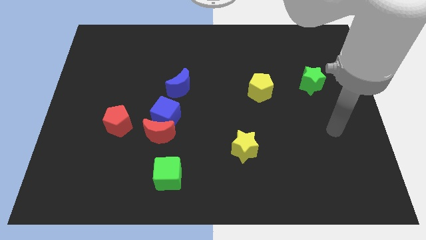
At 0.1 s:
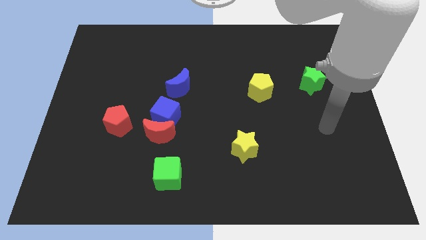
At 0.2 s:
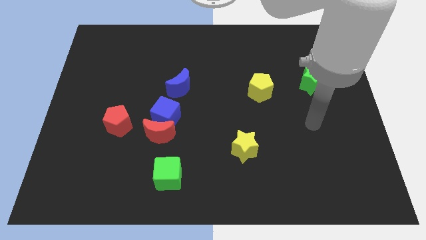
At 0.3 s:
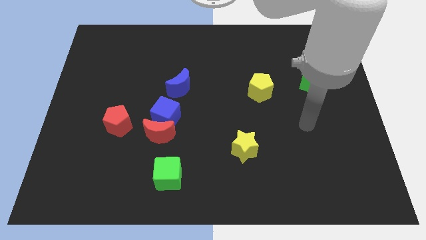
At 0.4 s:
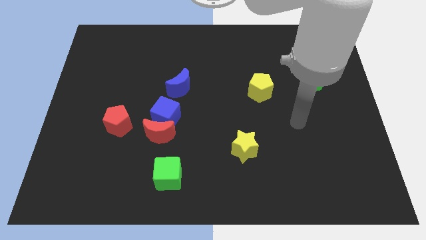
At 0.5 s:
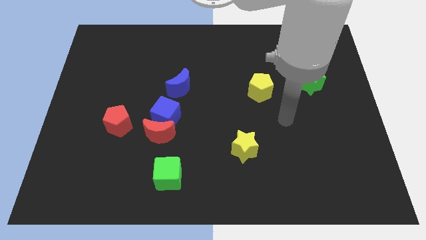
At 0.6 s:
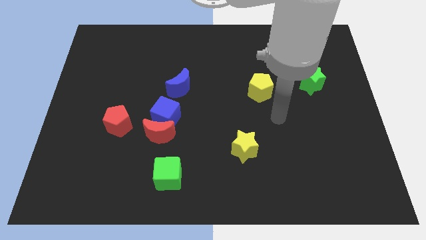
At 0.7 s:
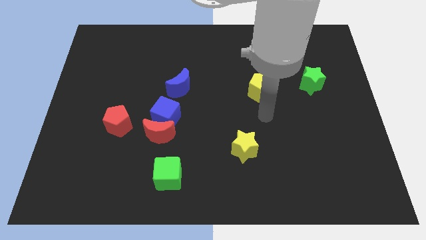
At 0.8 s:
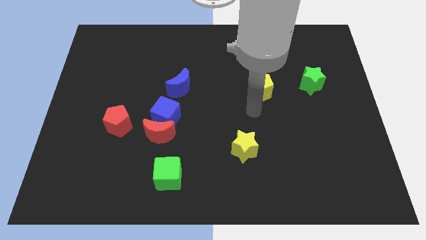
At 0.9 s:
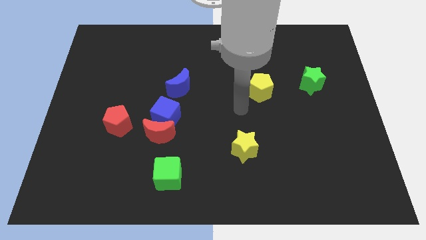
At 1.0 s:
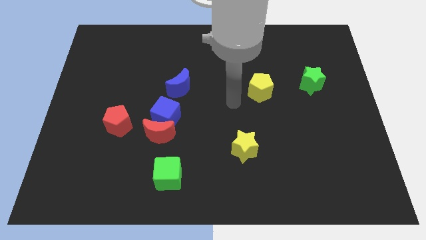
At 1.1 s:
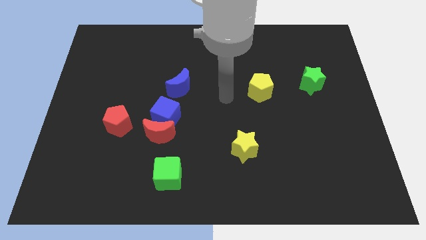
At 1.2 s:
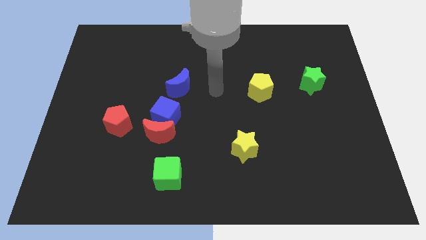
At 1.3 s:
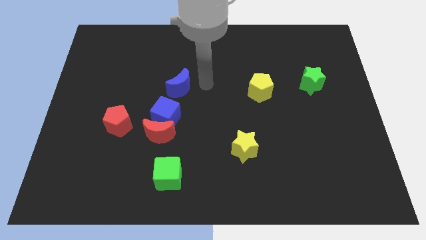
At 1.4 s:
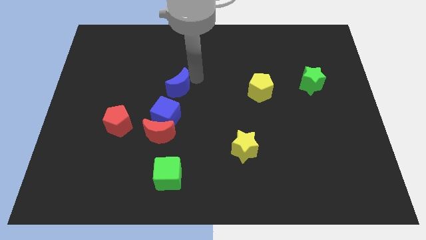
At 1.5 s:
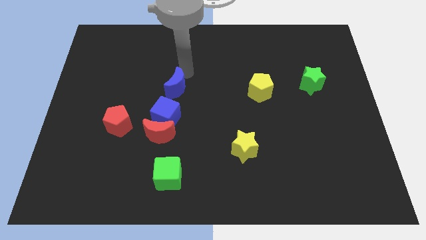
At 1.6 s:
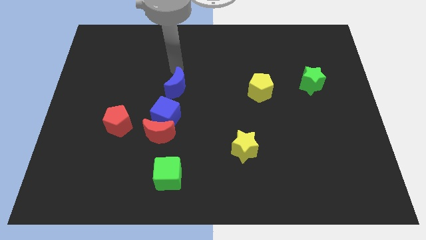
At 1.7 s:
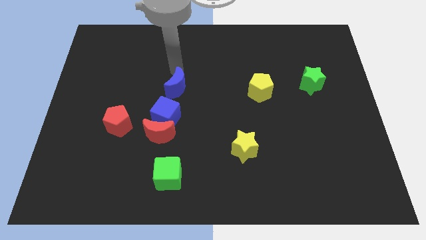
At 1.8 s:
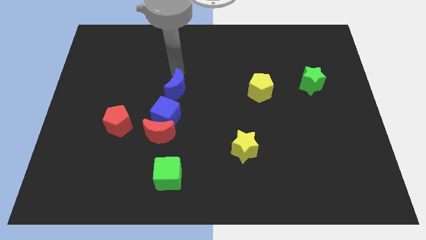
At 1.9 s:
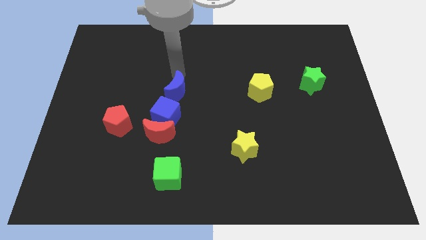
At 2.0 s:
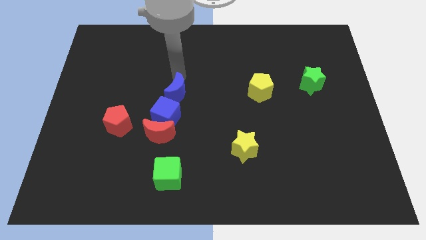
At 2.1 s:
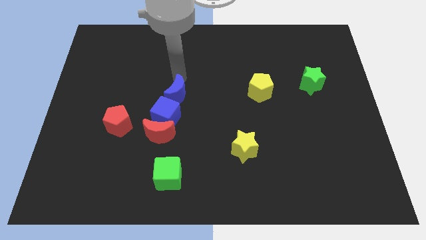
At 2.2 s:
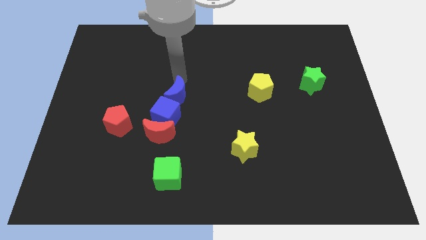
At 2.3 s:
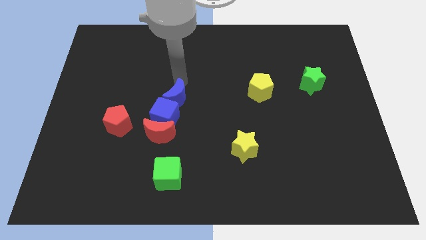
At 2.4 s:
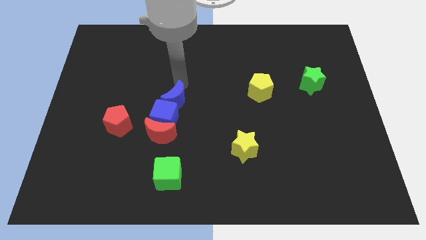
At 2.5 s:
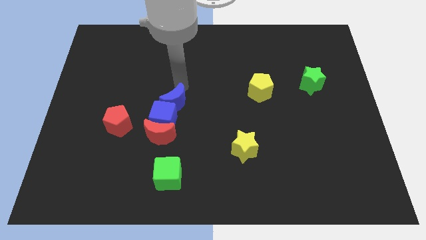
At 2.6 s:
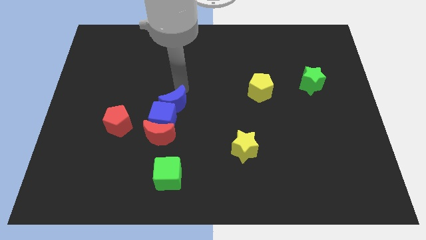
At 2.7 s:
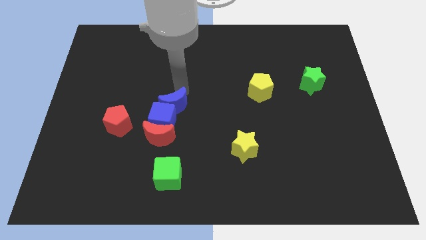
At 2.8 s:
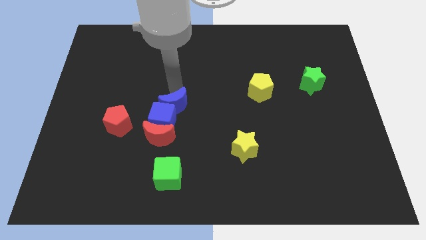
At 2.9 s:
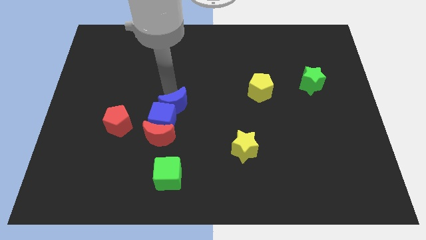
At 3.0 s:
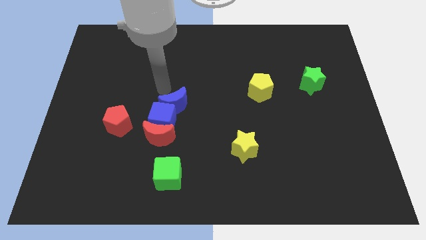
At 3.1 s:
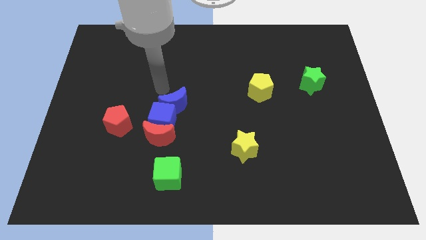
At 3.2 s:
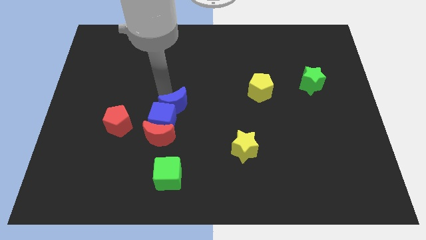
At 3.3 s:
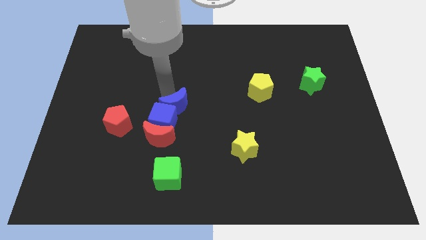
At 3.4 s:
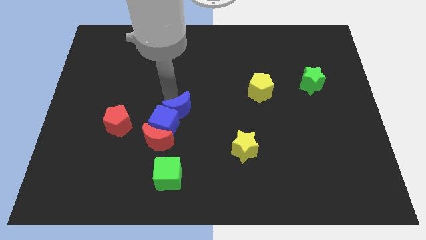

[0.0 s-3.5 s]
move the blue moon somewhat down

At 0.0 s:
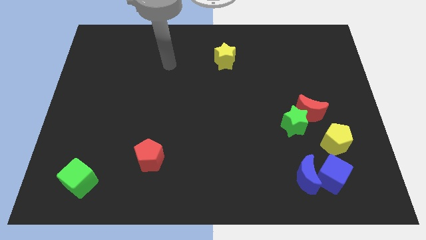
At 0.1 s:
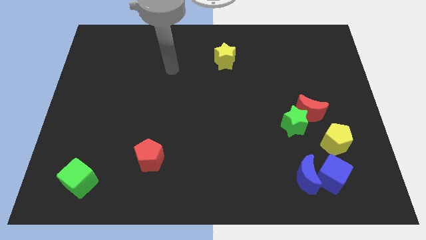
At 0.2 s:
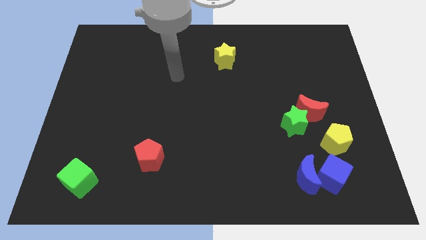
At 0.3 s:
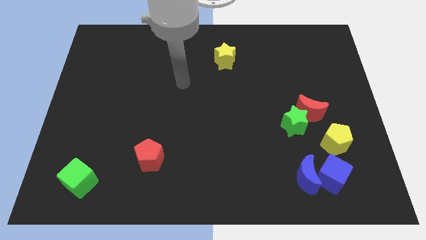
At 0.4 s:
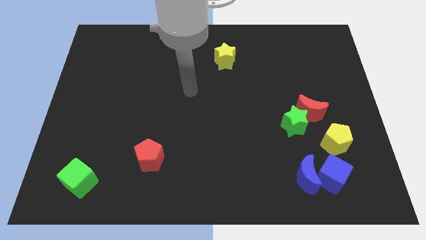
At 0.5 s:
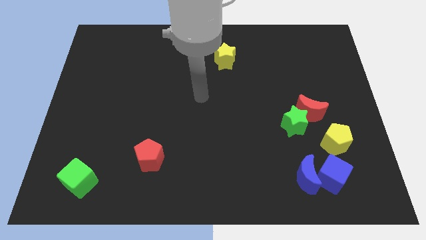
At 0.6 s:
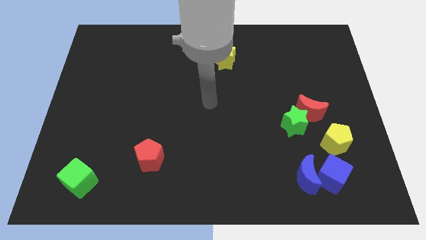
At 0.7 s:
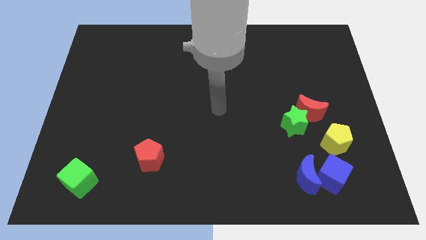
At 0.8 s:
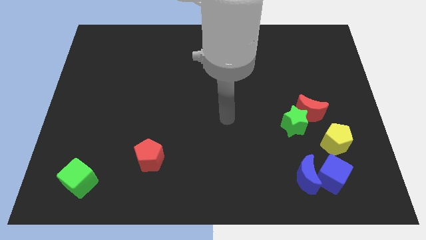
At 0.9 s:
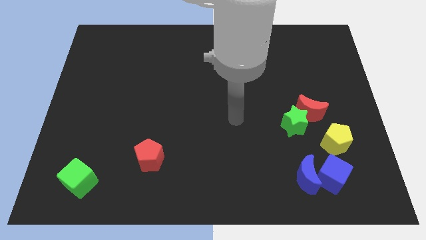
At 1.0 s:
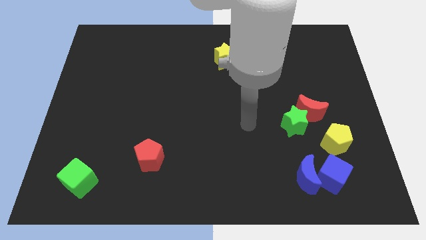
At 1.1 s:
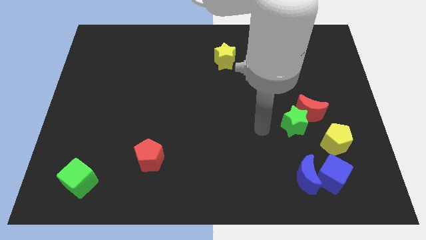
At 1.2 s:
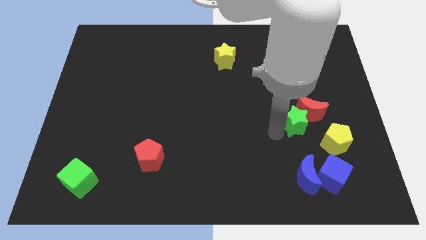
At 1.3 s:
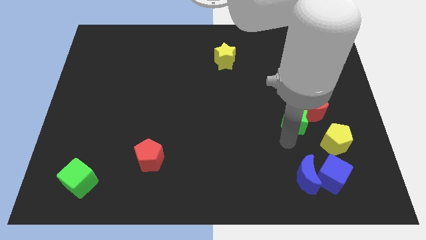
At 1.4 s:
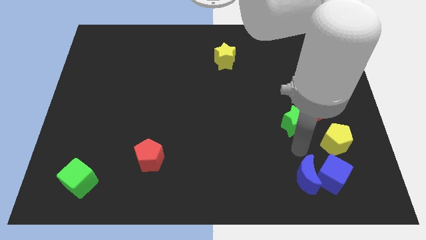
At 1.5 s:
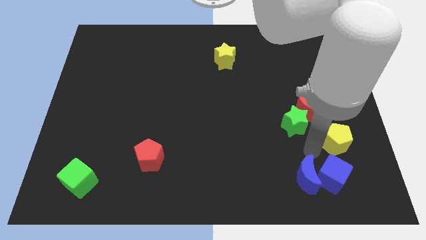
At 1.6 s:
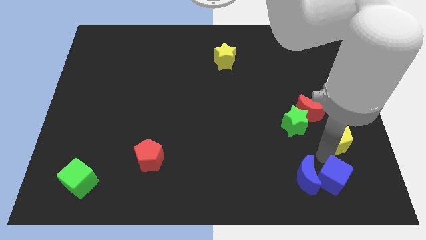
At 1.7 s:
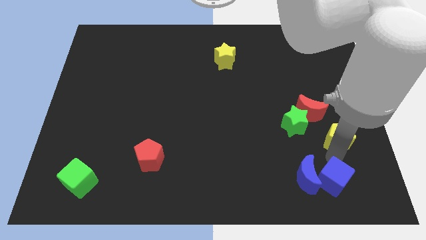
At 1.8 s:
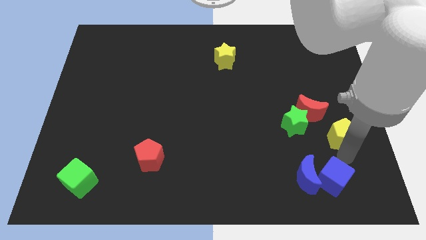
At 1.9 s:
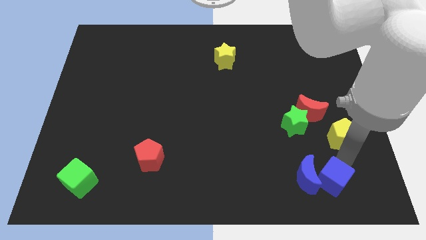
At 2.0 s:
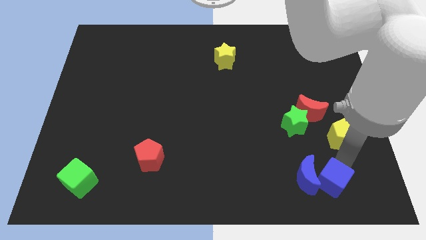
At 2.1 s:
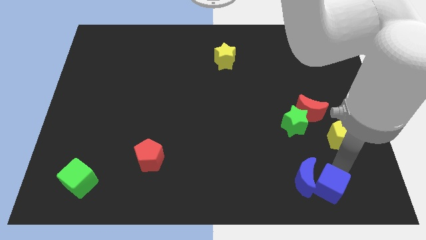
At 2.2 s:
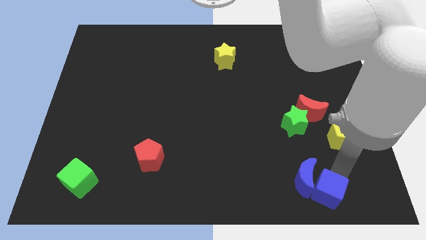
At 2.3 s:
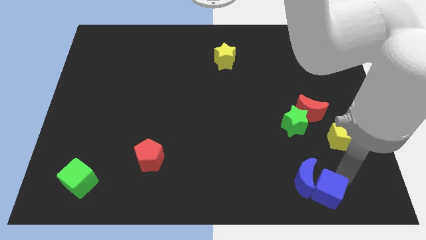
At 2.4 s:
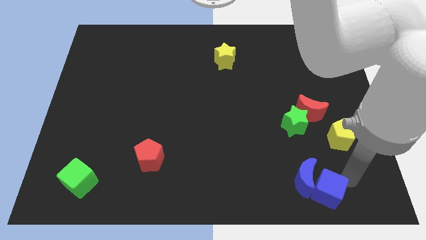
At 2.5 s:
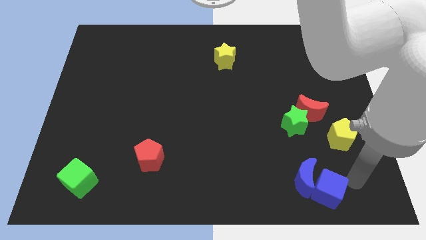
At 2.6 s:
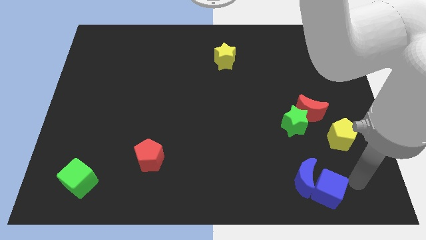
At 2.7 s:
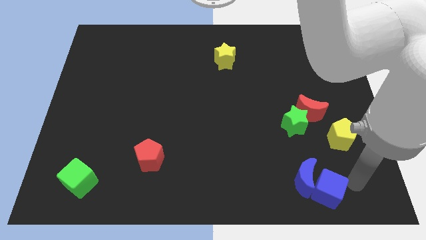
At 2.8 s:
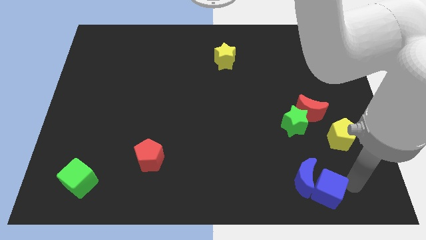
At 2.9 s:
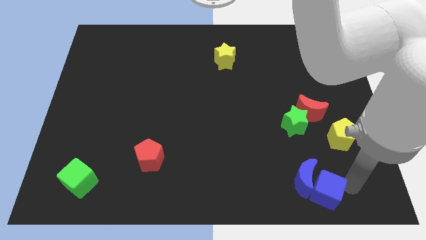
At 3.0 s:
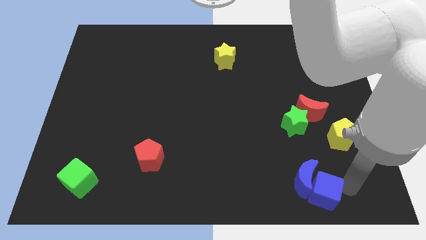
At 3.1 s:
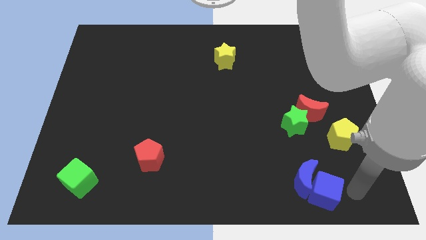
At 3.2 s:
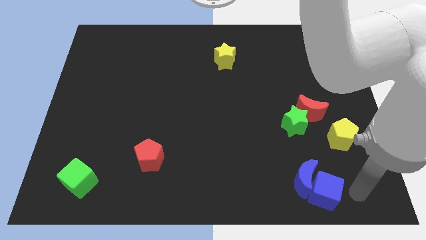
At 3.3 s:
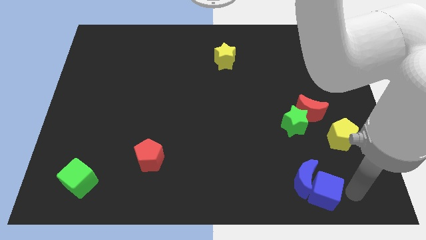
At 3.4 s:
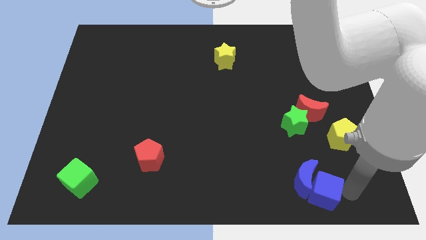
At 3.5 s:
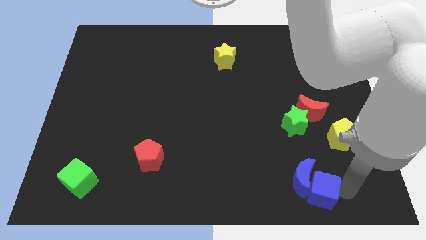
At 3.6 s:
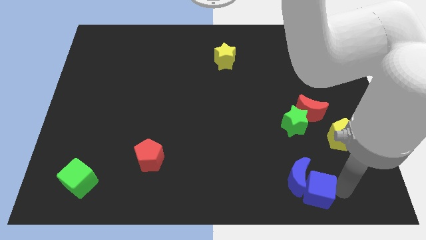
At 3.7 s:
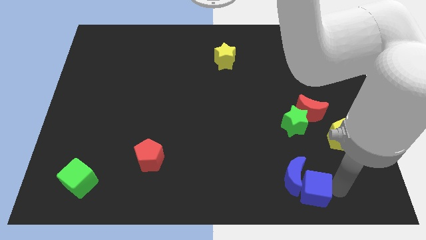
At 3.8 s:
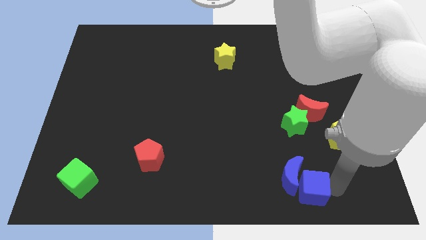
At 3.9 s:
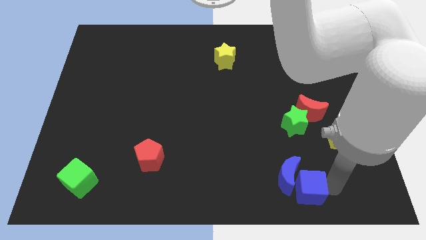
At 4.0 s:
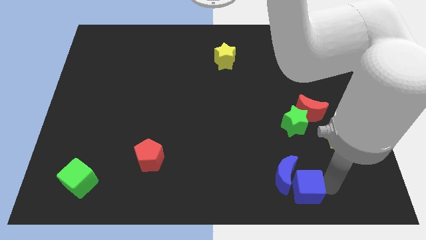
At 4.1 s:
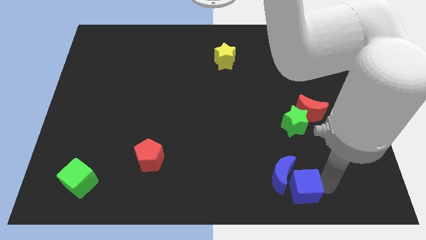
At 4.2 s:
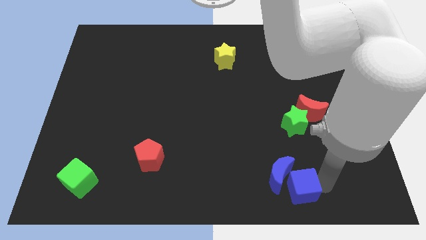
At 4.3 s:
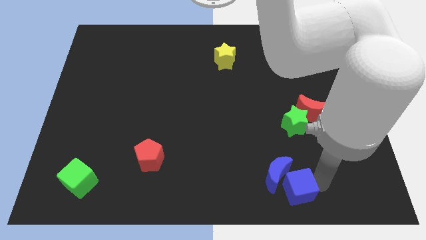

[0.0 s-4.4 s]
push the blue cube left somewhat

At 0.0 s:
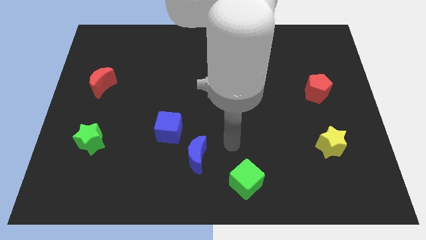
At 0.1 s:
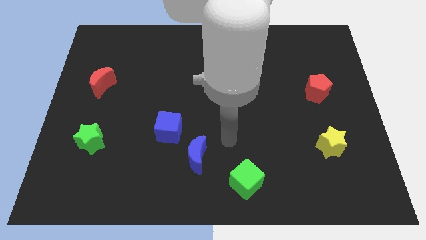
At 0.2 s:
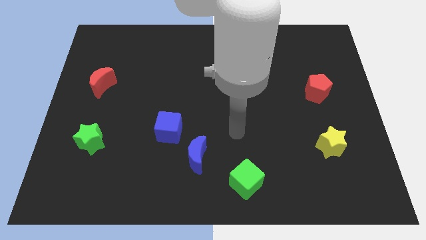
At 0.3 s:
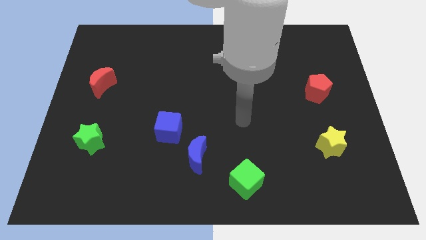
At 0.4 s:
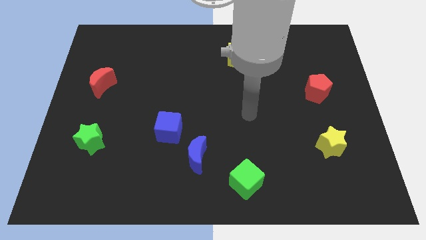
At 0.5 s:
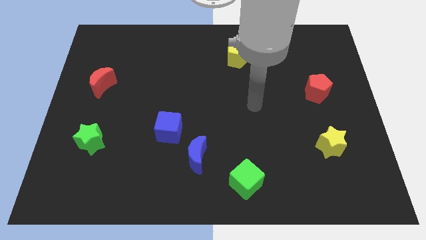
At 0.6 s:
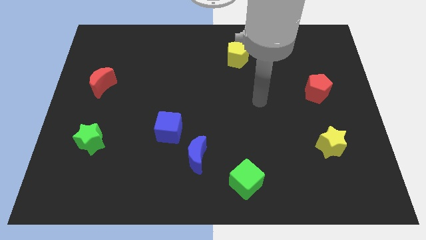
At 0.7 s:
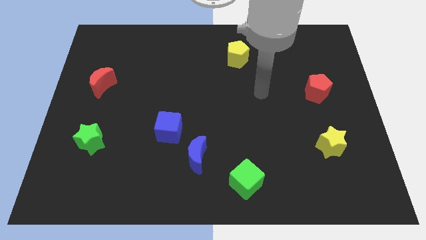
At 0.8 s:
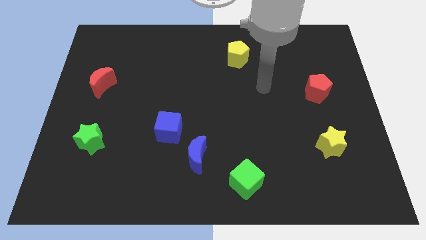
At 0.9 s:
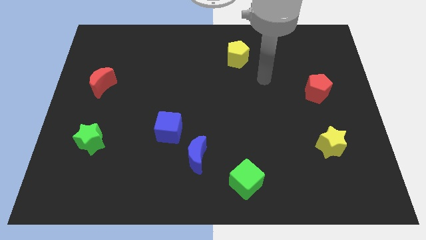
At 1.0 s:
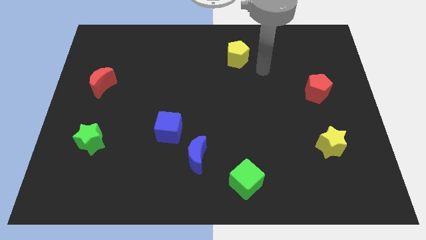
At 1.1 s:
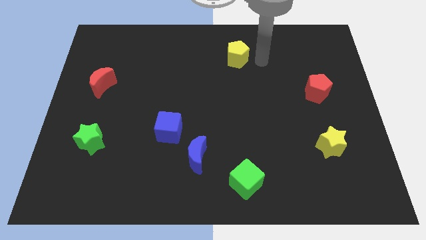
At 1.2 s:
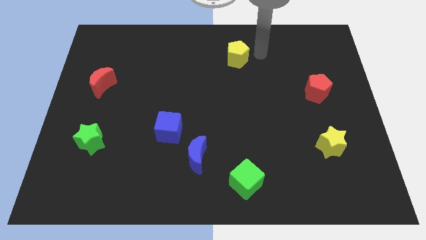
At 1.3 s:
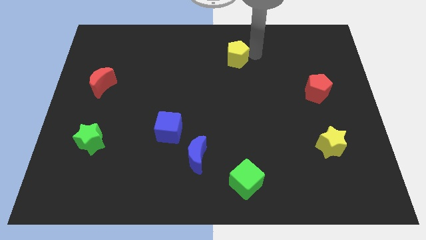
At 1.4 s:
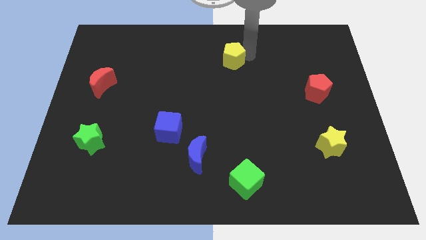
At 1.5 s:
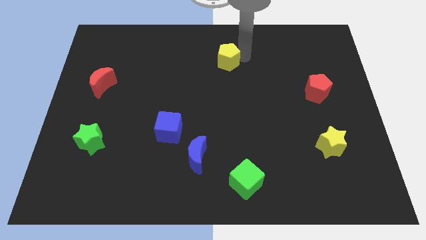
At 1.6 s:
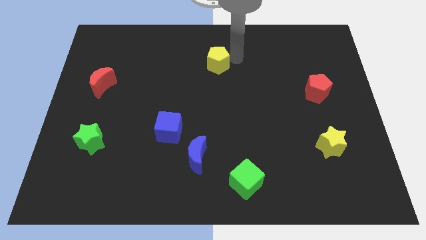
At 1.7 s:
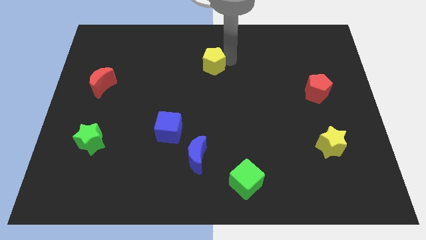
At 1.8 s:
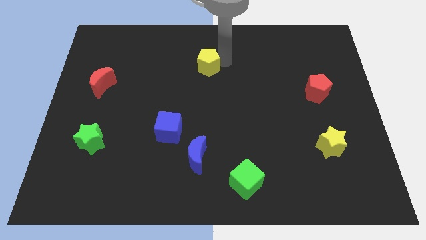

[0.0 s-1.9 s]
push the yellow pentagon left slightly